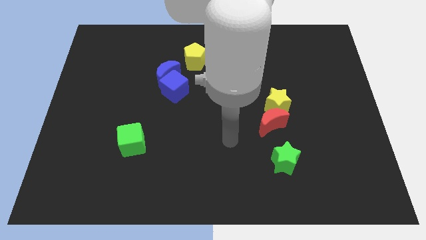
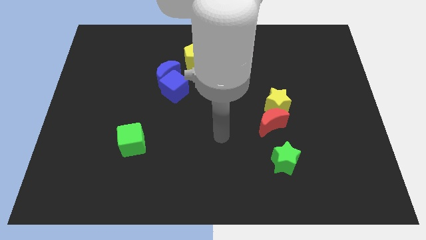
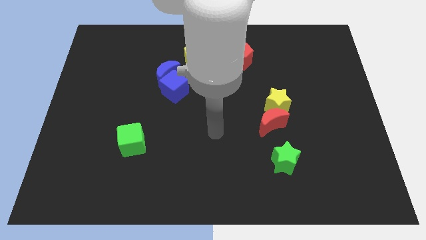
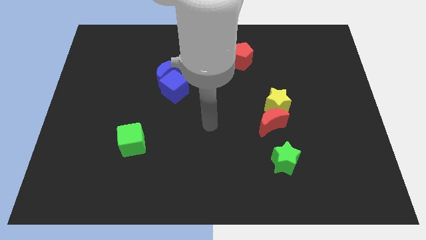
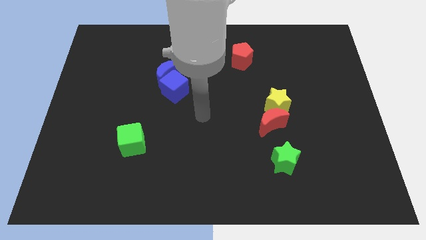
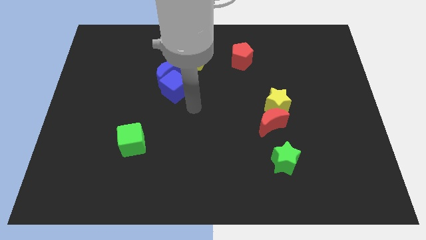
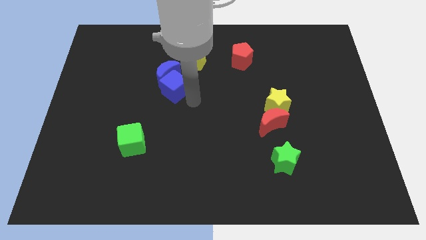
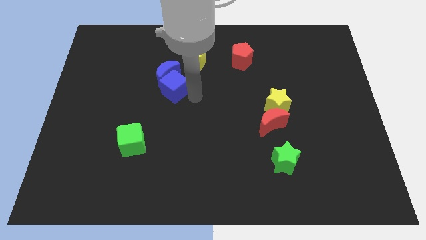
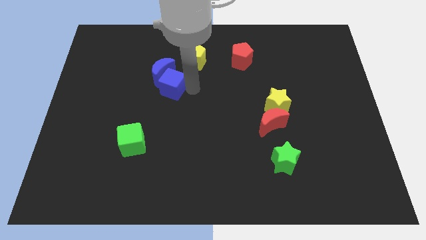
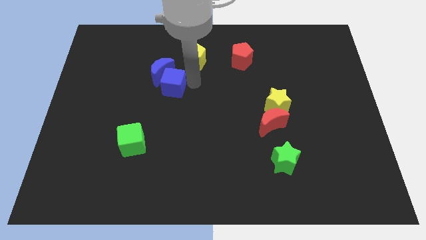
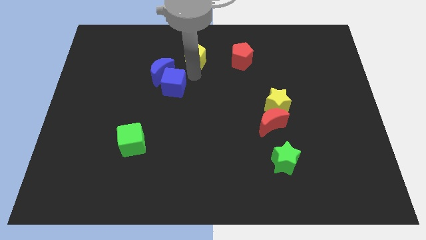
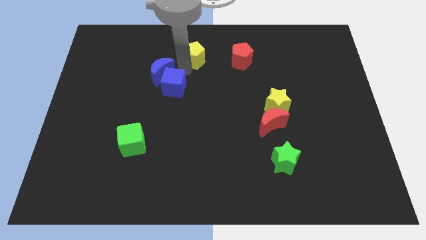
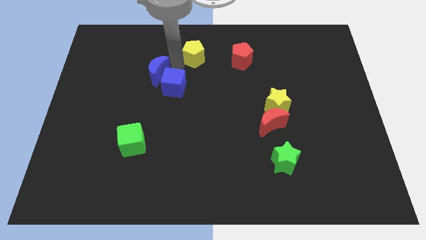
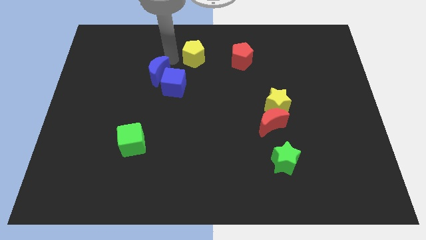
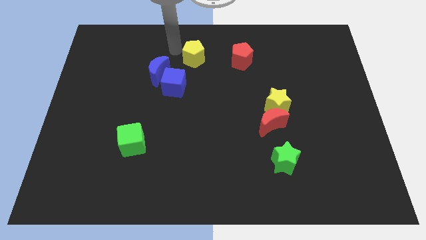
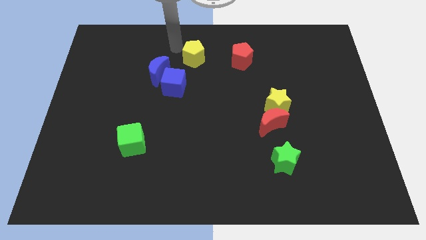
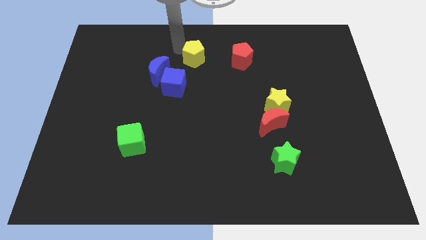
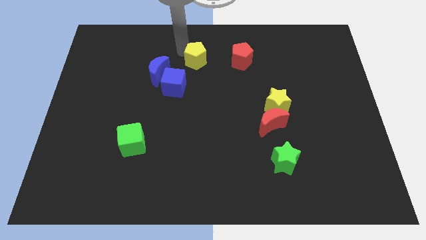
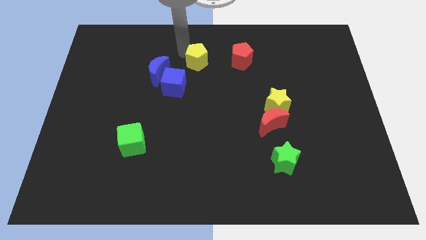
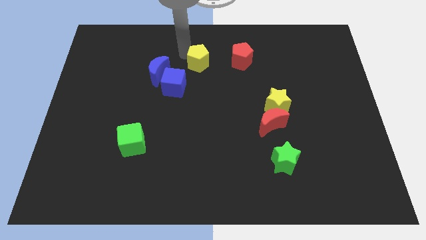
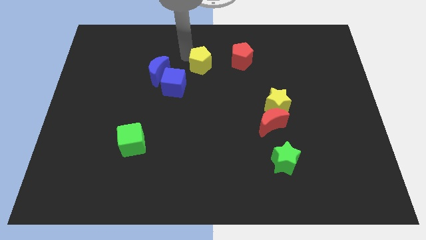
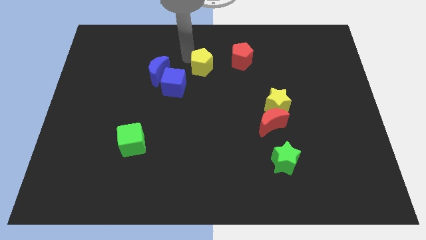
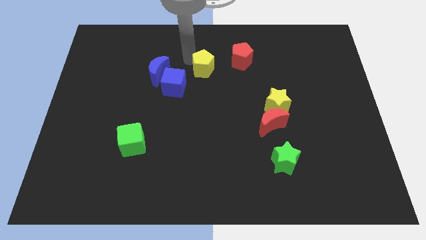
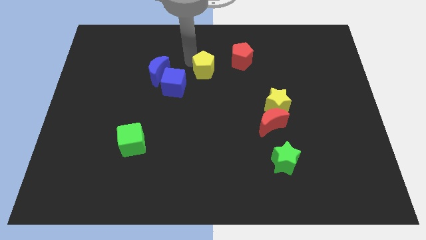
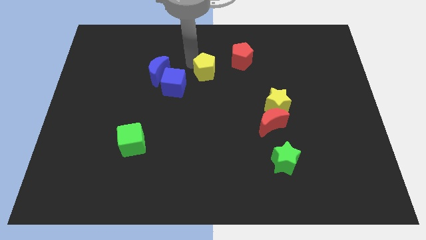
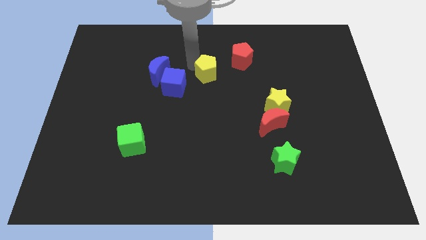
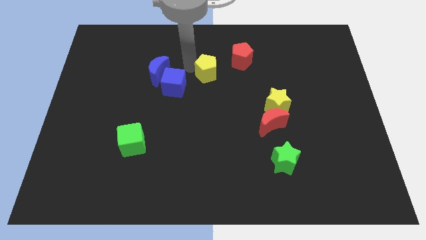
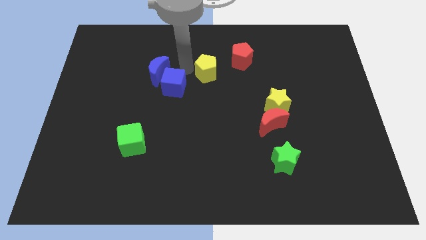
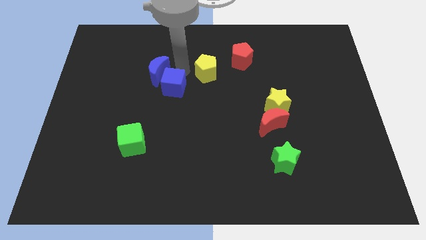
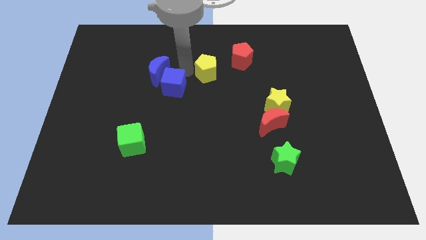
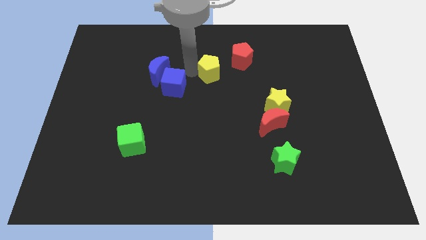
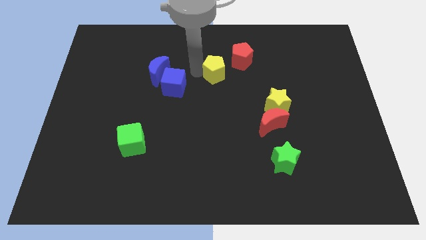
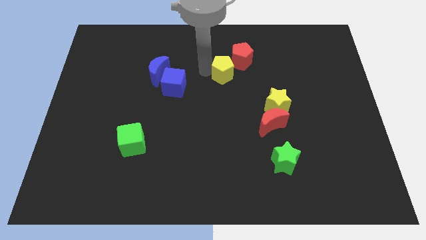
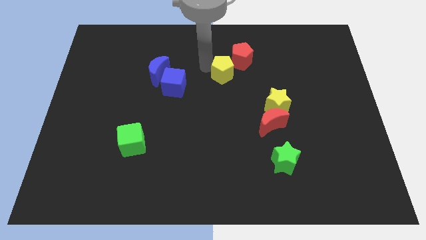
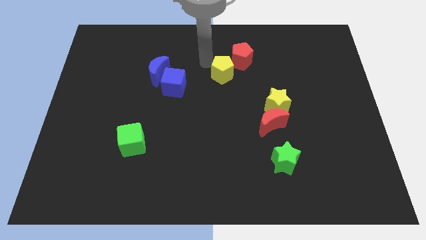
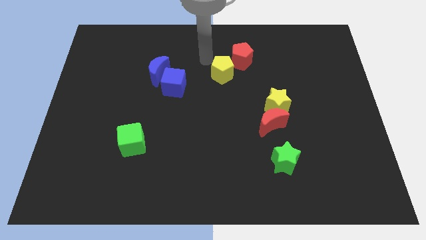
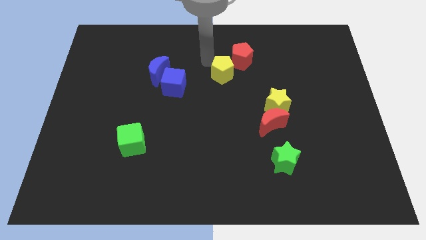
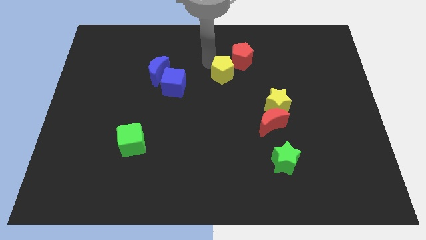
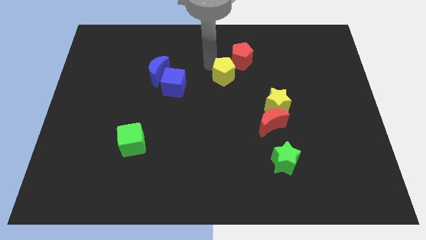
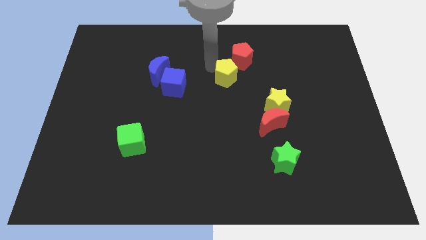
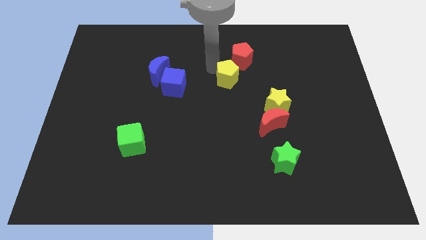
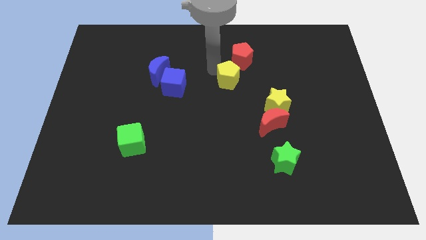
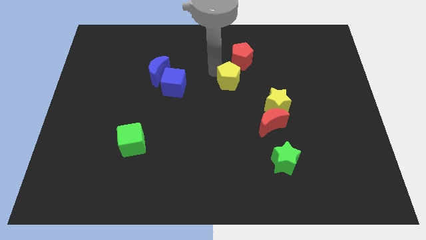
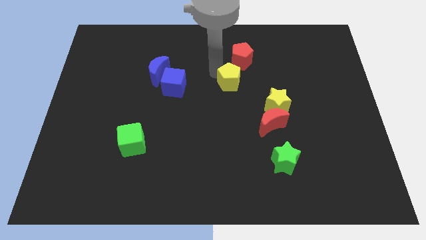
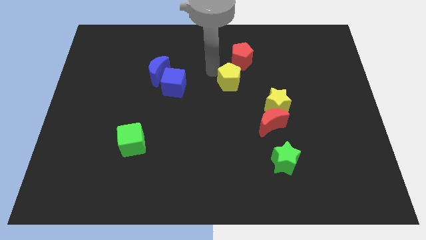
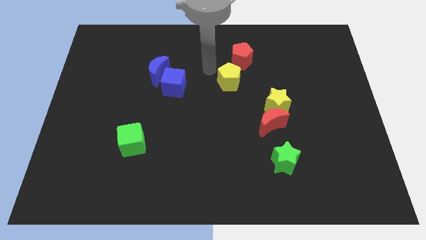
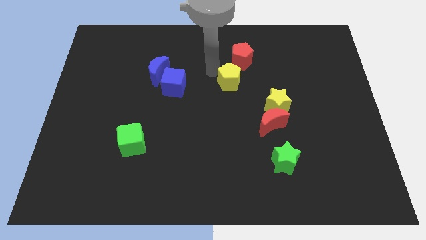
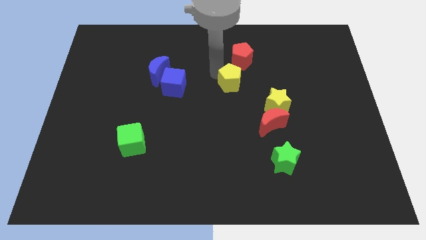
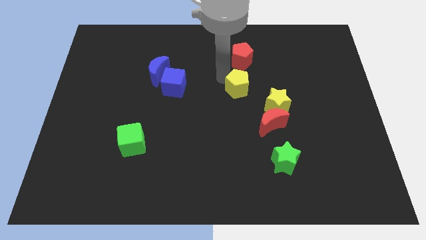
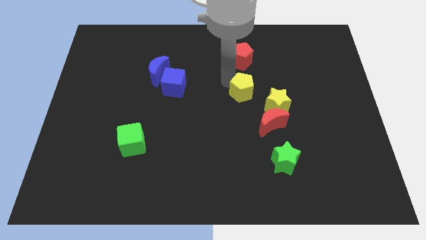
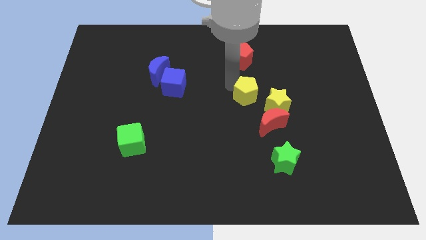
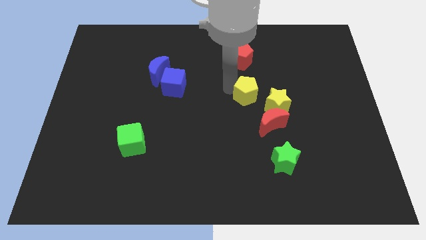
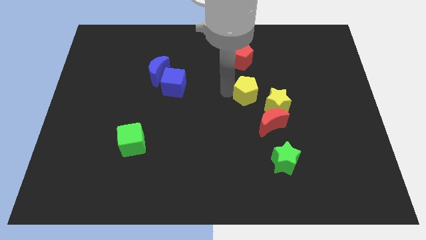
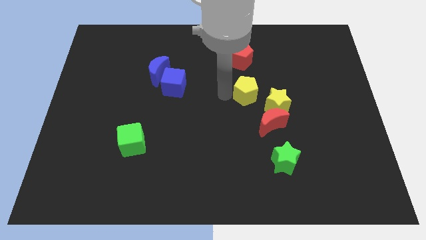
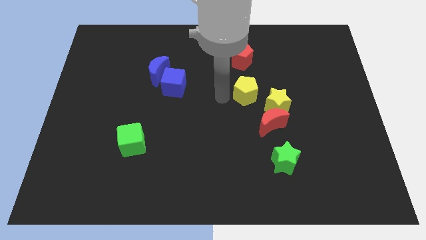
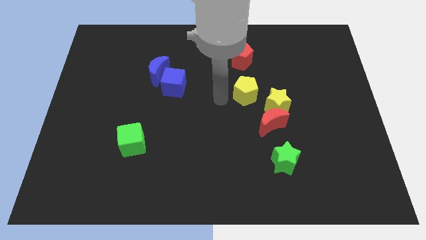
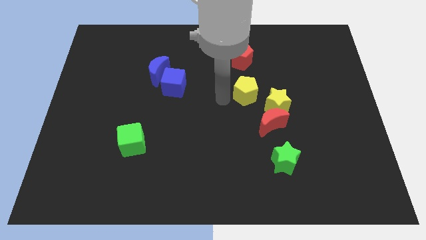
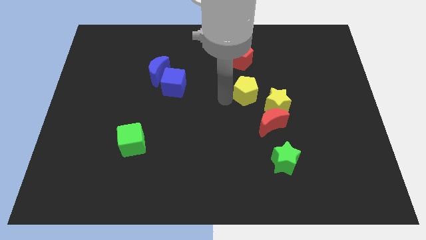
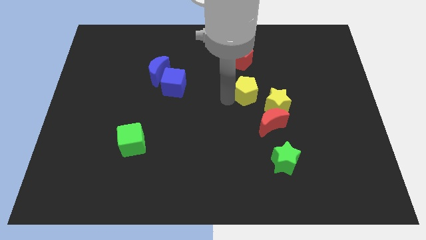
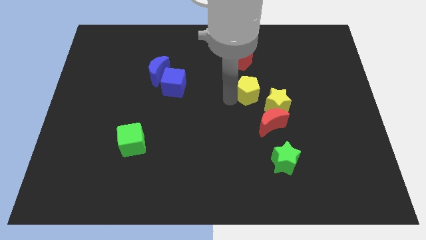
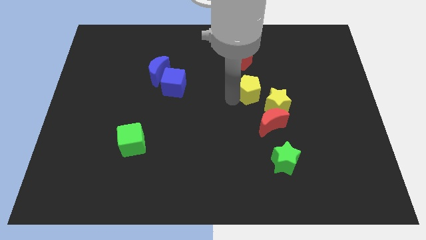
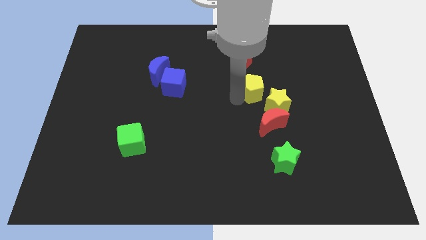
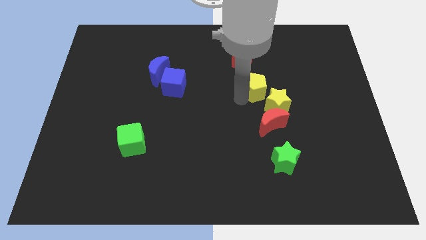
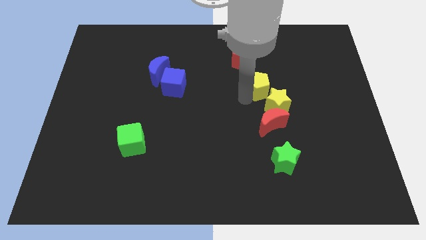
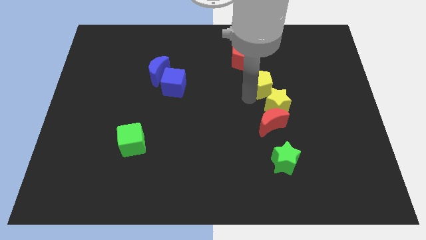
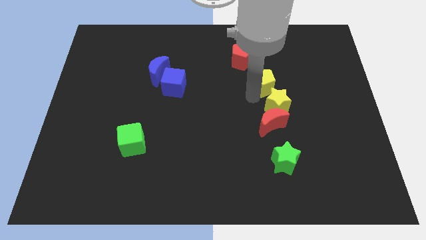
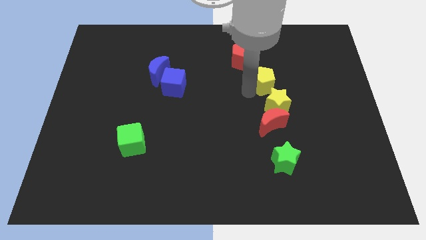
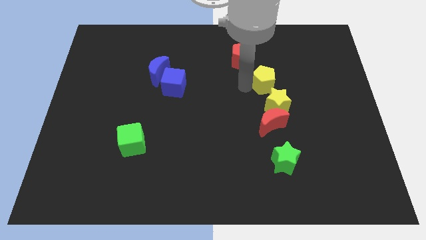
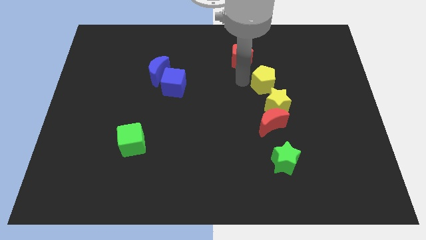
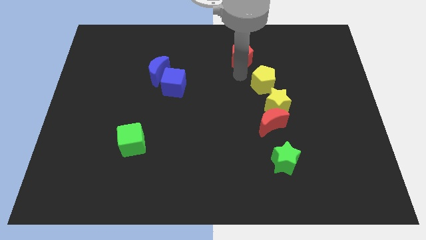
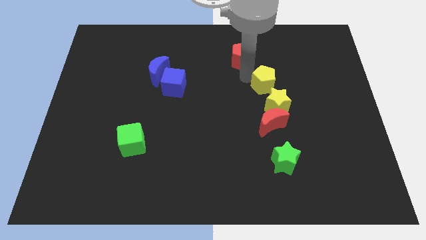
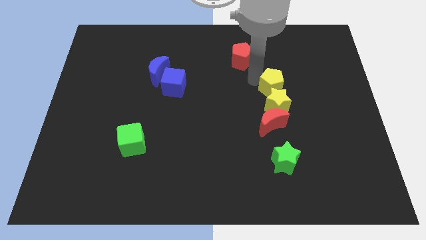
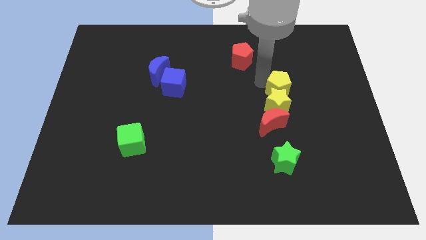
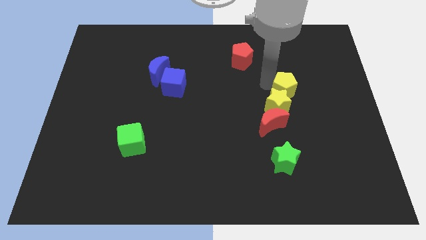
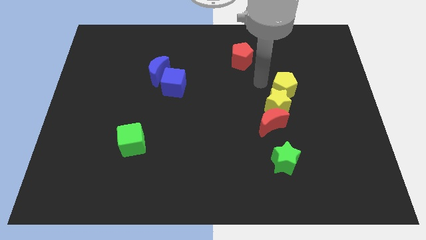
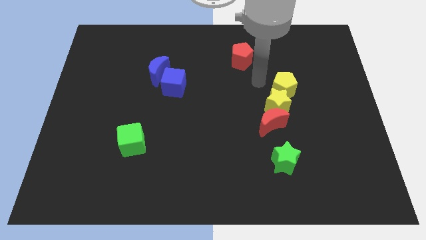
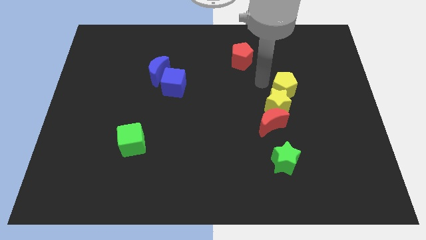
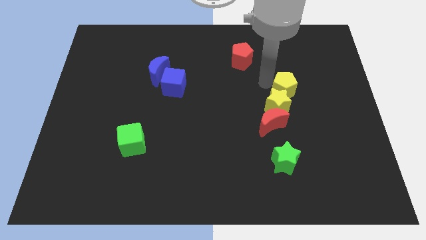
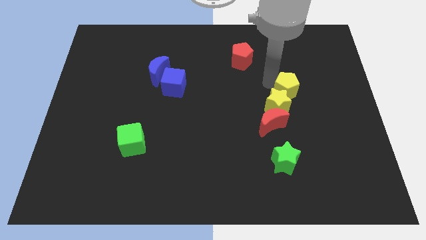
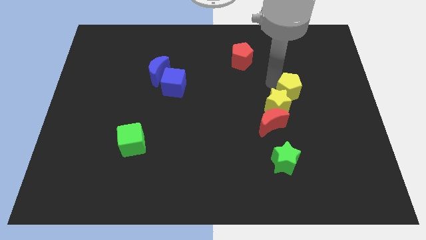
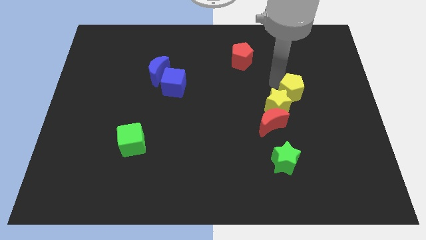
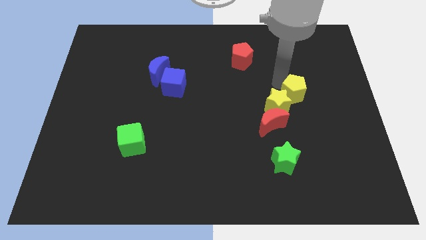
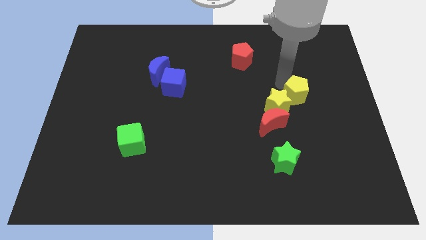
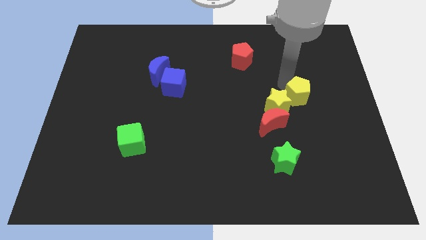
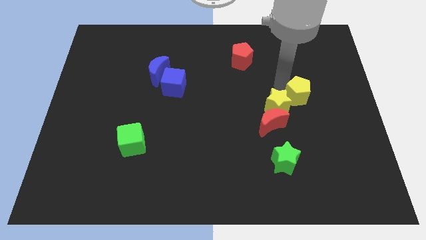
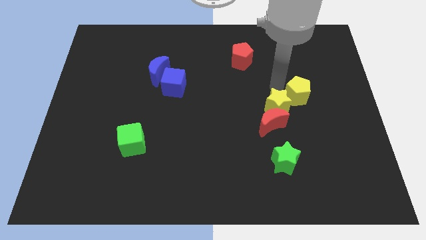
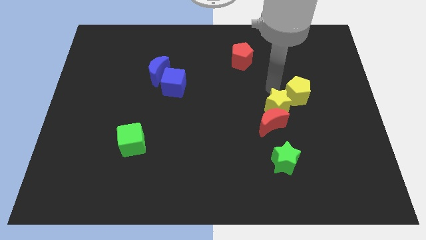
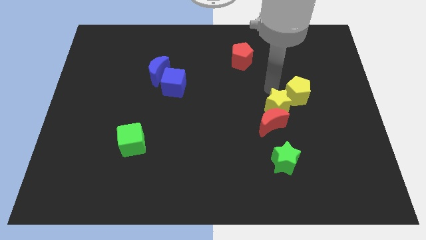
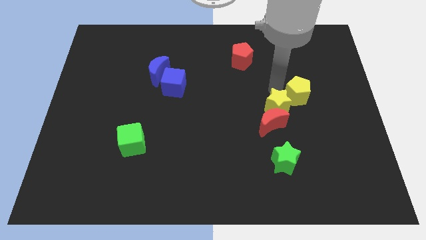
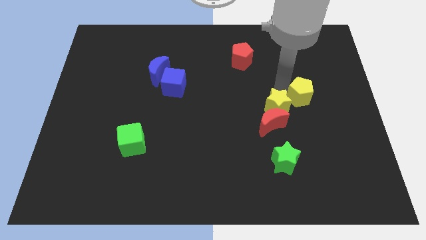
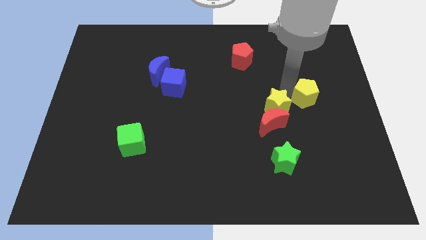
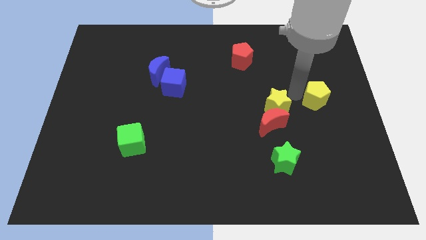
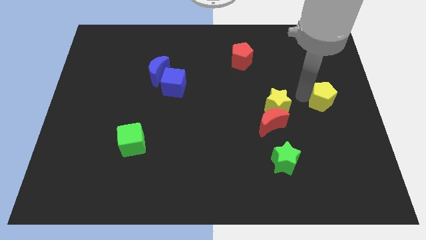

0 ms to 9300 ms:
put the yellow pentagon to the right side of the board
